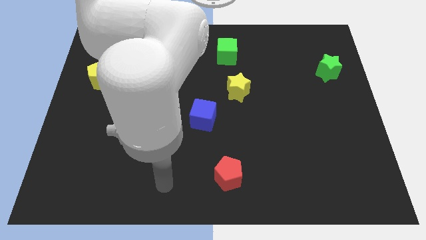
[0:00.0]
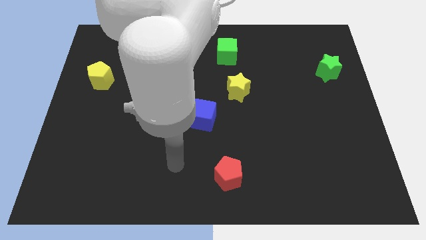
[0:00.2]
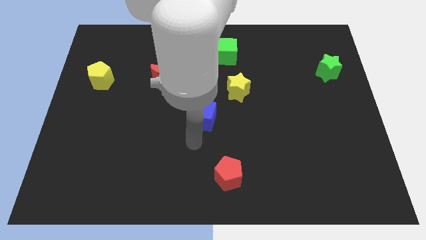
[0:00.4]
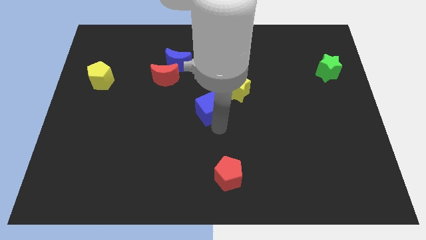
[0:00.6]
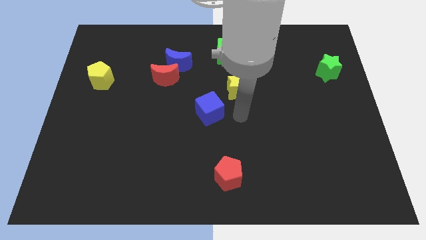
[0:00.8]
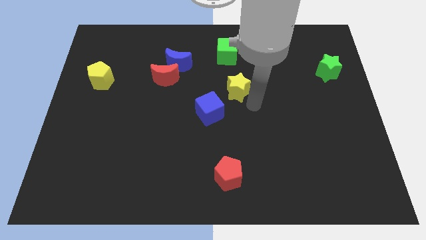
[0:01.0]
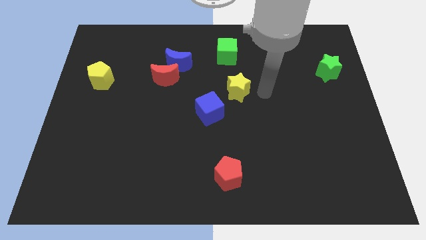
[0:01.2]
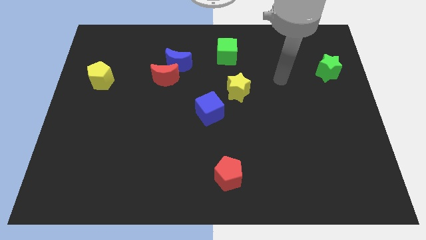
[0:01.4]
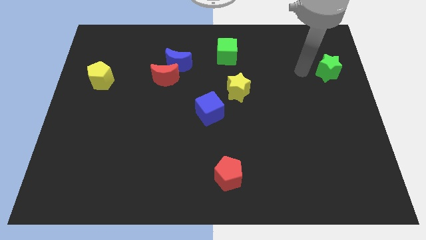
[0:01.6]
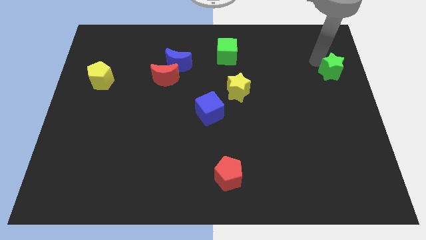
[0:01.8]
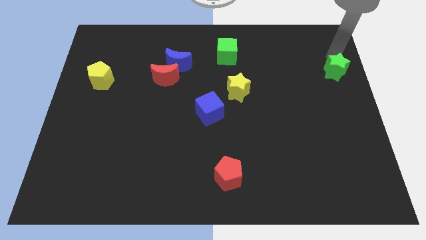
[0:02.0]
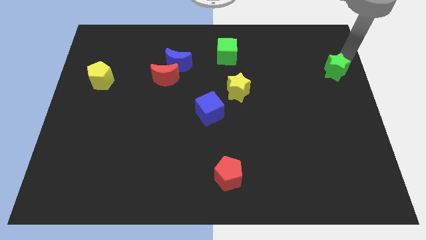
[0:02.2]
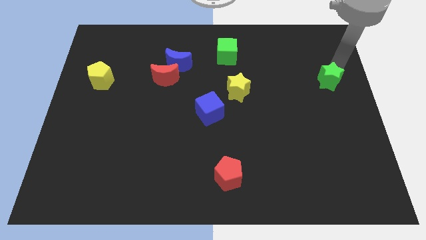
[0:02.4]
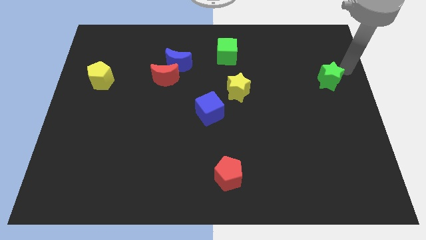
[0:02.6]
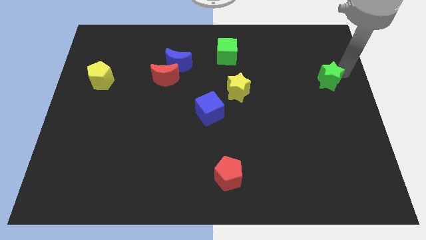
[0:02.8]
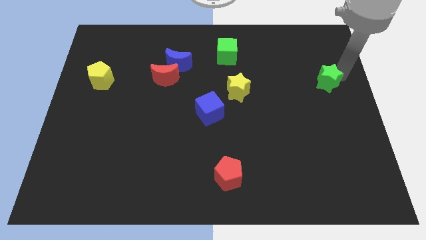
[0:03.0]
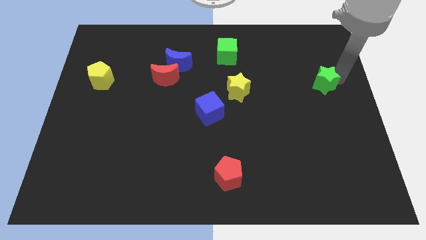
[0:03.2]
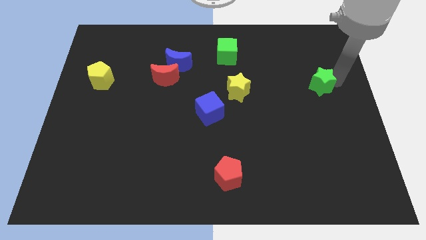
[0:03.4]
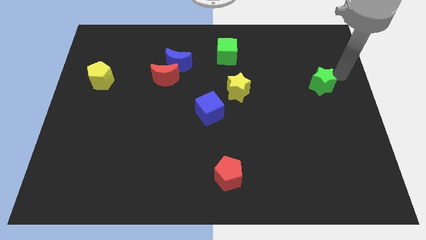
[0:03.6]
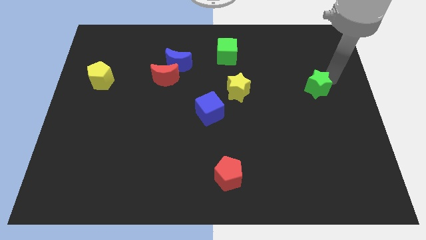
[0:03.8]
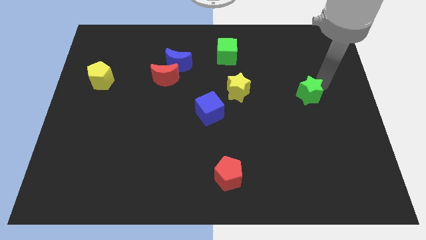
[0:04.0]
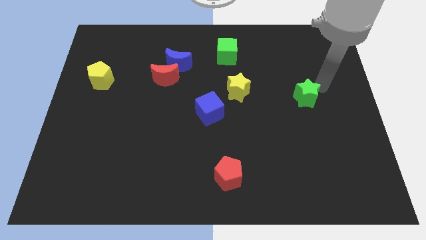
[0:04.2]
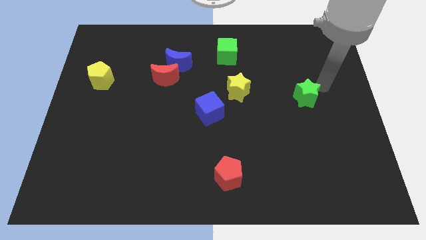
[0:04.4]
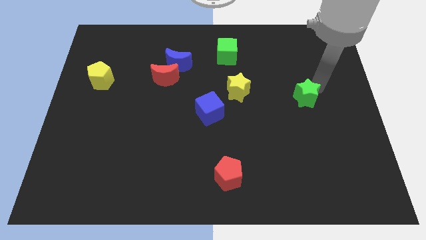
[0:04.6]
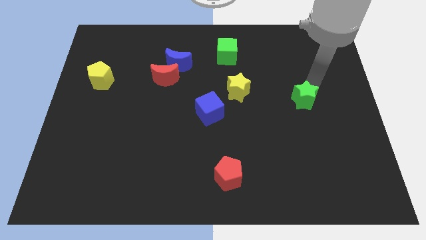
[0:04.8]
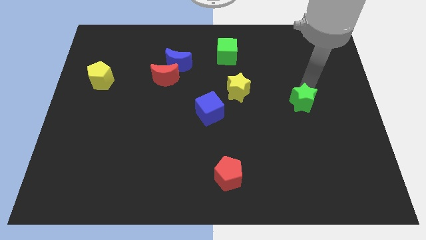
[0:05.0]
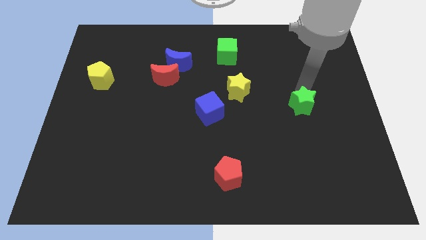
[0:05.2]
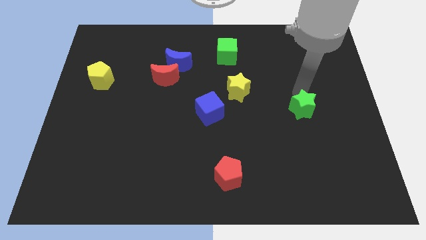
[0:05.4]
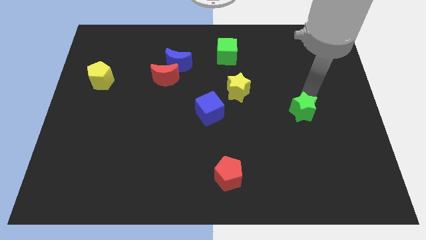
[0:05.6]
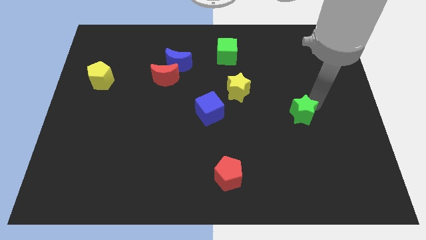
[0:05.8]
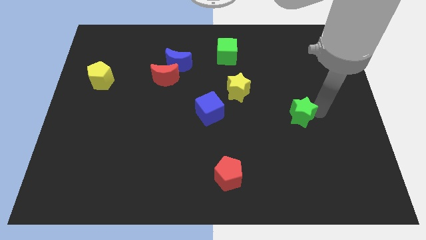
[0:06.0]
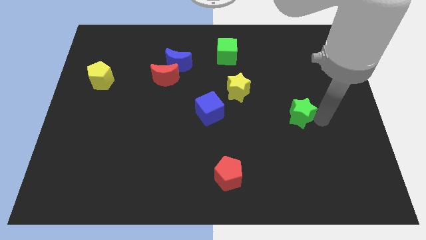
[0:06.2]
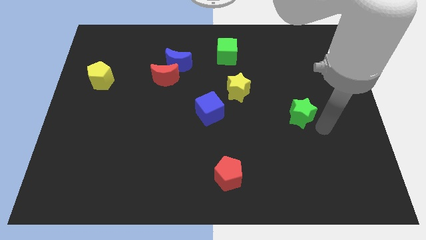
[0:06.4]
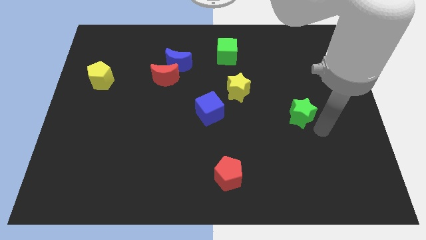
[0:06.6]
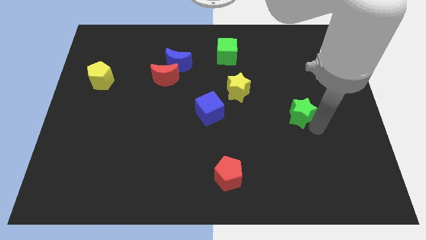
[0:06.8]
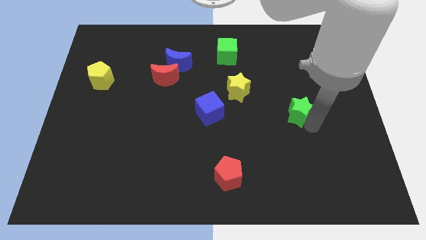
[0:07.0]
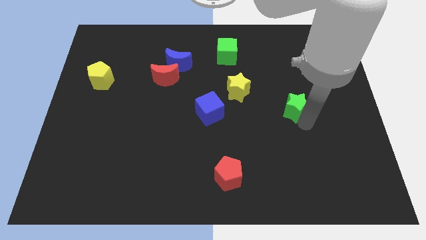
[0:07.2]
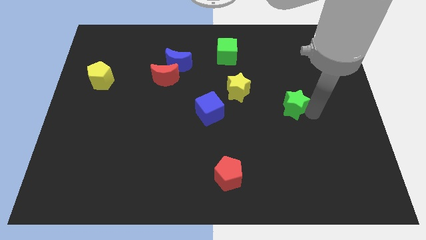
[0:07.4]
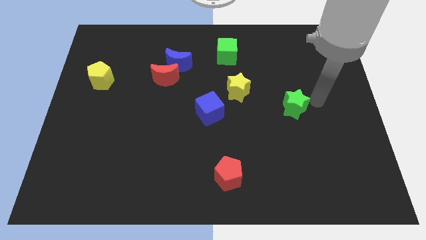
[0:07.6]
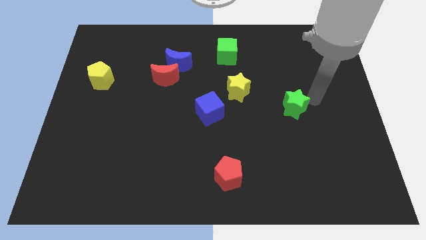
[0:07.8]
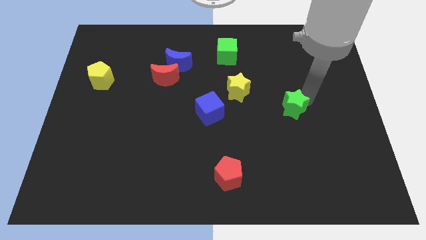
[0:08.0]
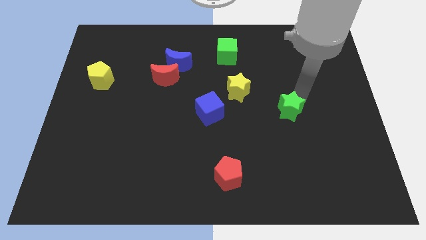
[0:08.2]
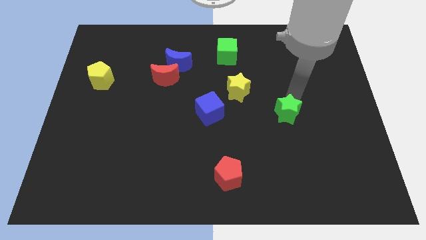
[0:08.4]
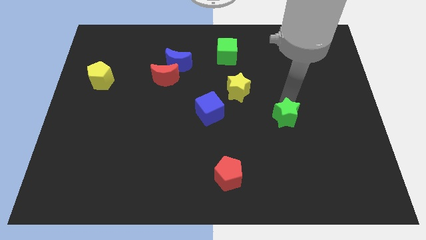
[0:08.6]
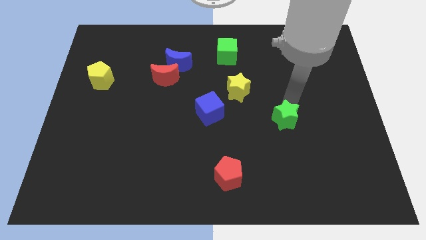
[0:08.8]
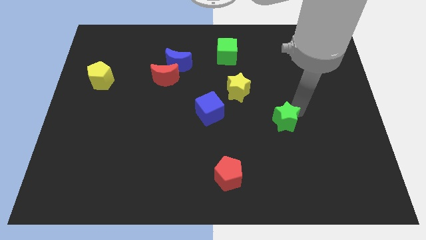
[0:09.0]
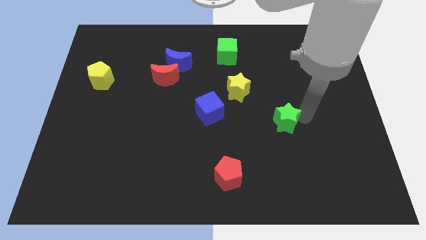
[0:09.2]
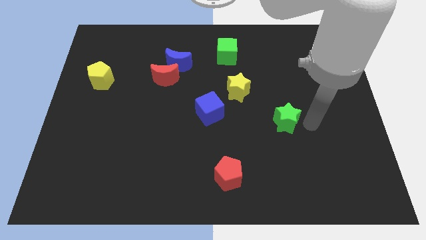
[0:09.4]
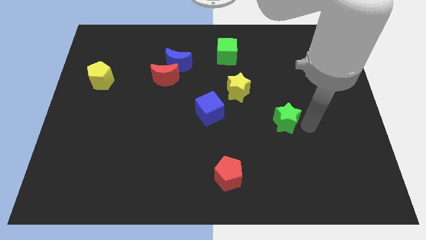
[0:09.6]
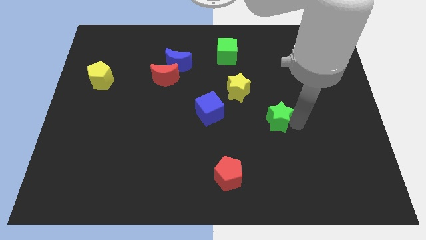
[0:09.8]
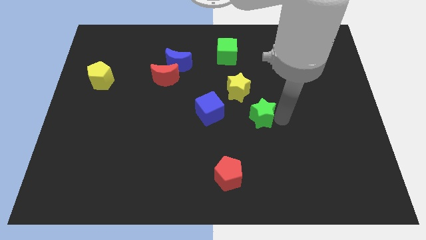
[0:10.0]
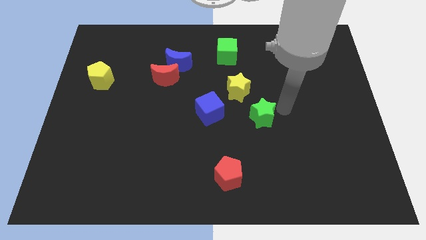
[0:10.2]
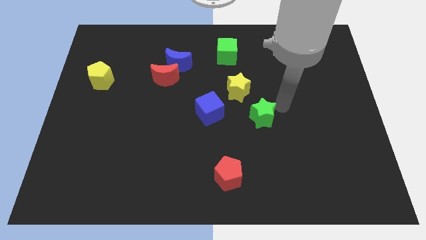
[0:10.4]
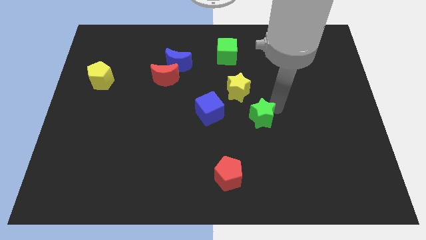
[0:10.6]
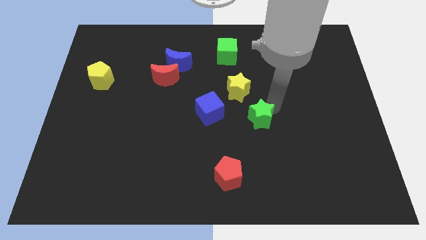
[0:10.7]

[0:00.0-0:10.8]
put the green star below the yellow star

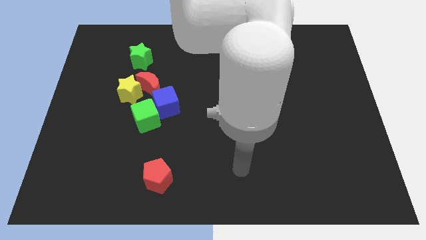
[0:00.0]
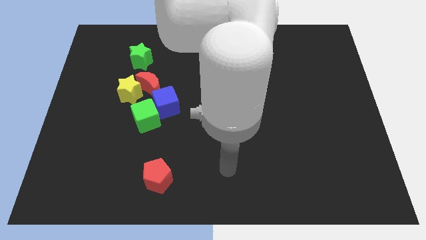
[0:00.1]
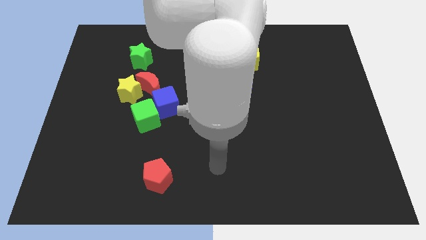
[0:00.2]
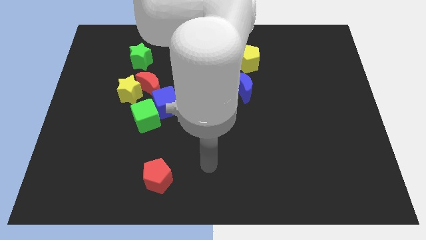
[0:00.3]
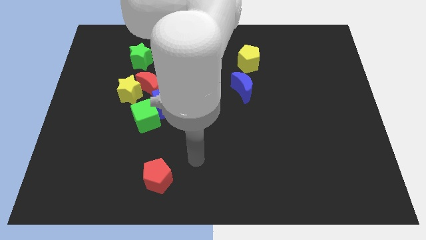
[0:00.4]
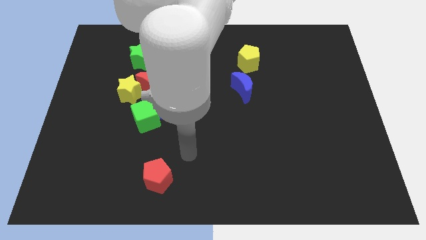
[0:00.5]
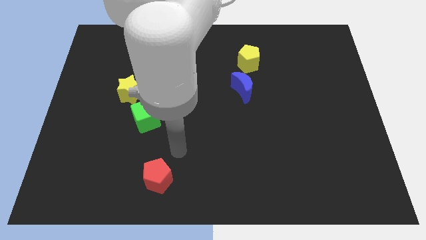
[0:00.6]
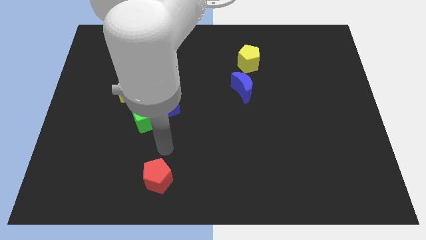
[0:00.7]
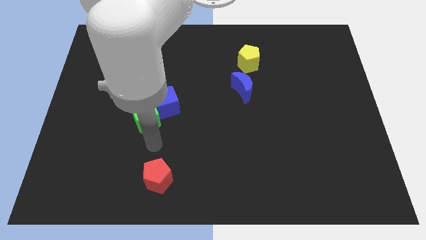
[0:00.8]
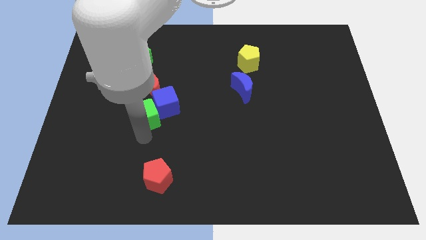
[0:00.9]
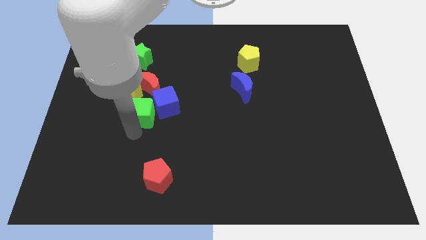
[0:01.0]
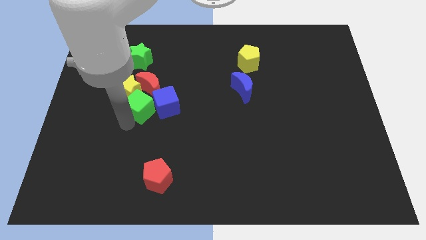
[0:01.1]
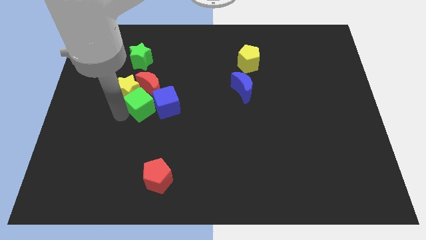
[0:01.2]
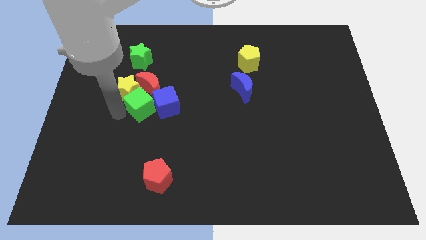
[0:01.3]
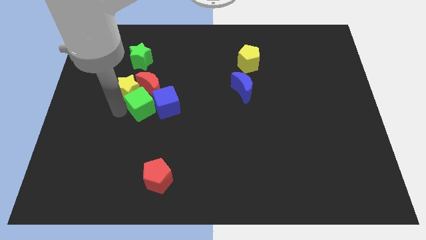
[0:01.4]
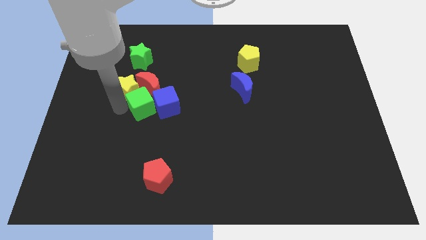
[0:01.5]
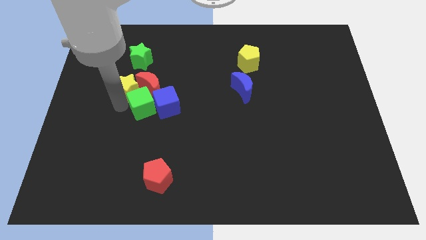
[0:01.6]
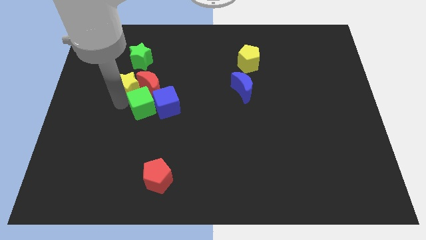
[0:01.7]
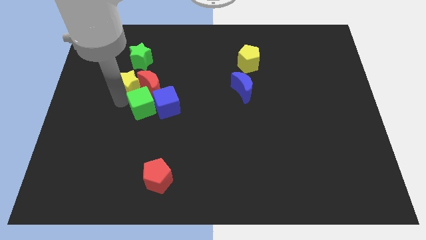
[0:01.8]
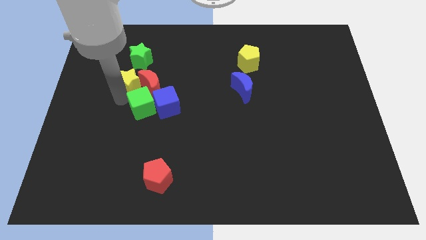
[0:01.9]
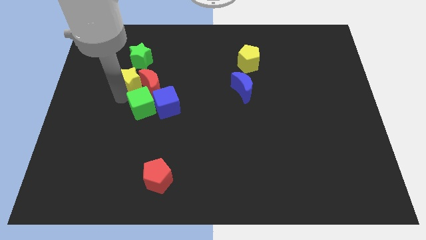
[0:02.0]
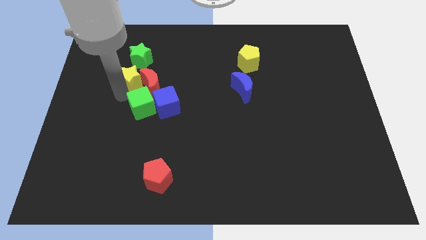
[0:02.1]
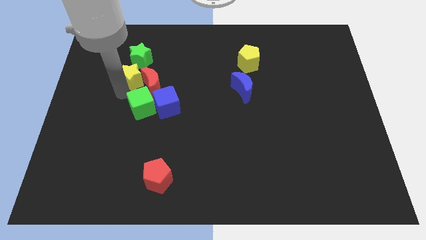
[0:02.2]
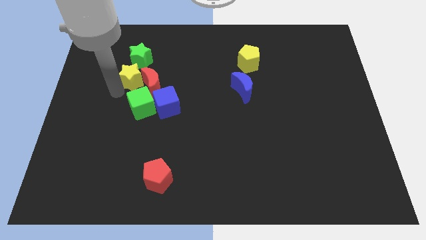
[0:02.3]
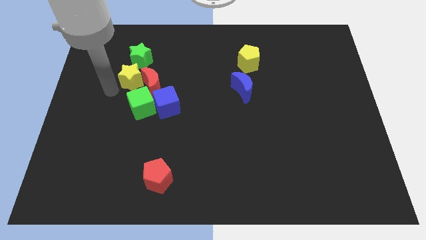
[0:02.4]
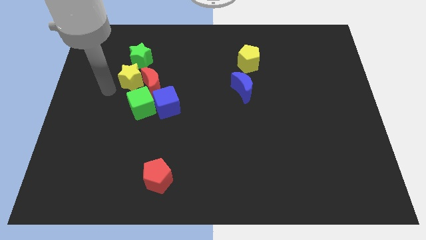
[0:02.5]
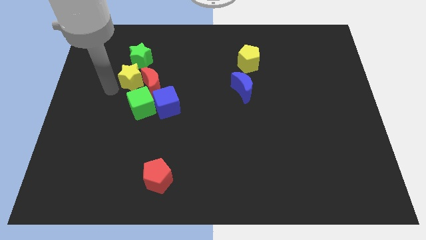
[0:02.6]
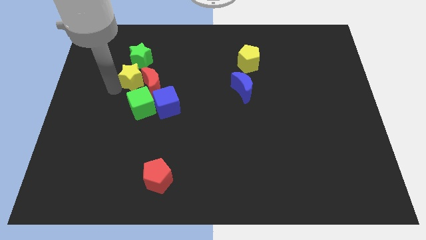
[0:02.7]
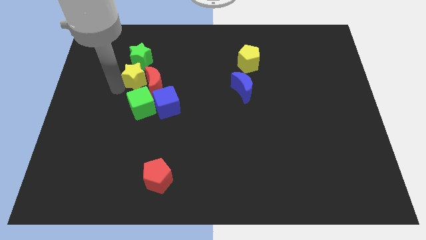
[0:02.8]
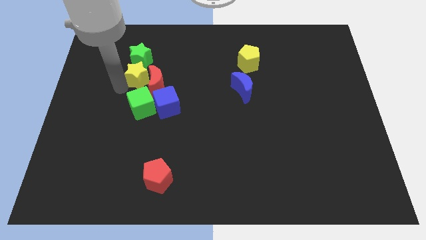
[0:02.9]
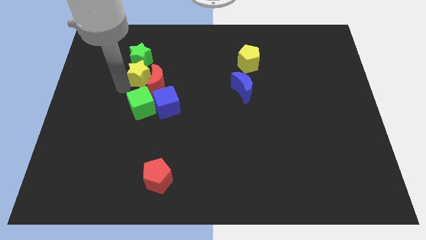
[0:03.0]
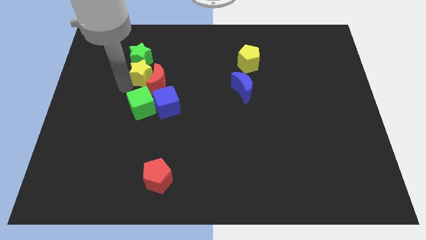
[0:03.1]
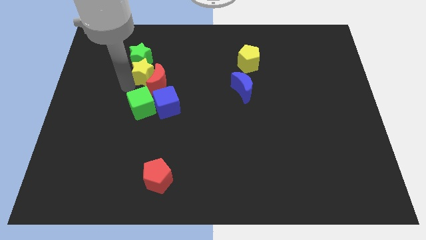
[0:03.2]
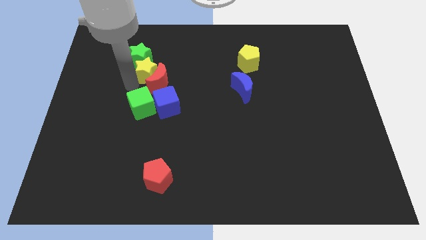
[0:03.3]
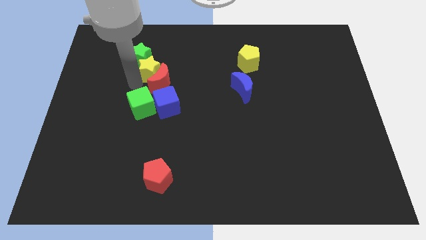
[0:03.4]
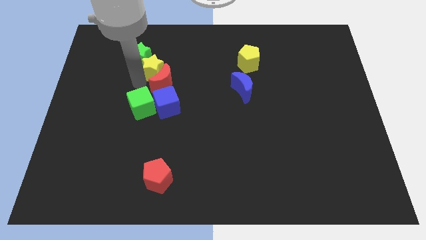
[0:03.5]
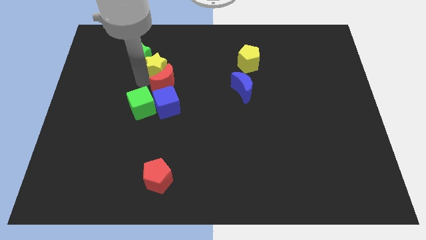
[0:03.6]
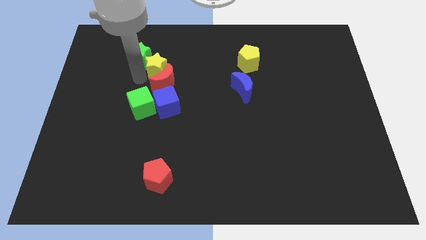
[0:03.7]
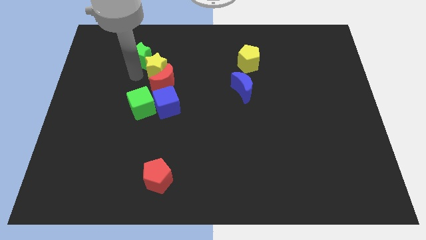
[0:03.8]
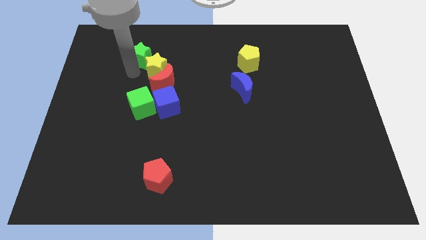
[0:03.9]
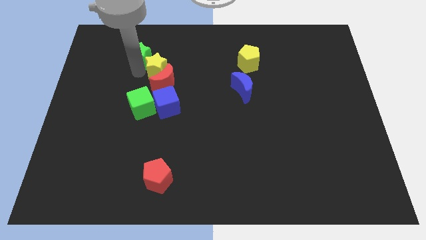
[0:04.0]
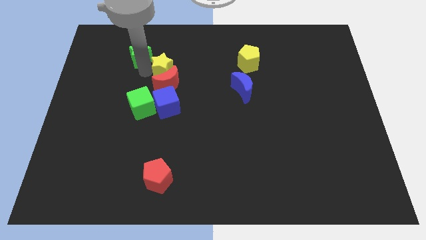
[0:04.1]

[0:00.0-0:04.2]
move the yellow star to the top right of the red moon
